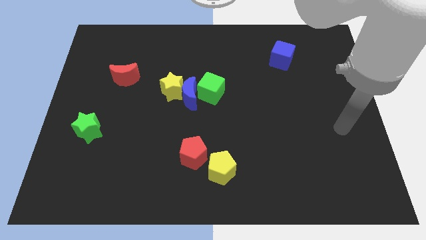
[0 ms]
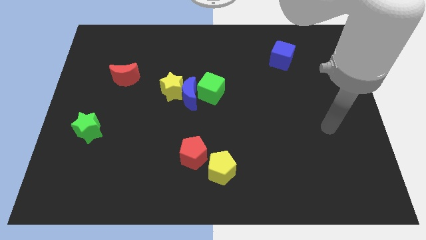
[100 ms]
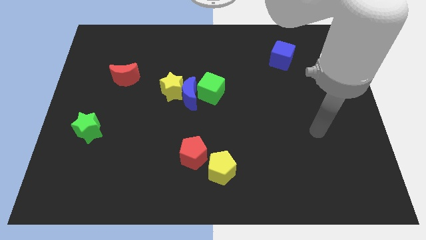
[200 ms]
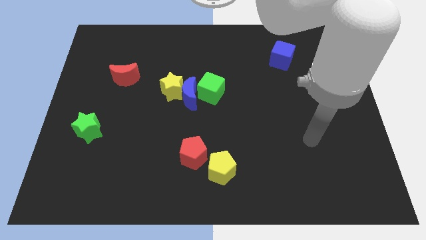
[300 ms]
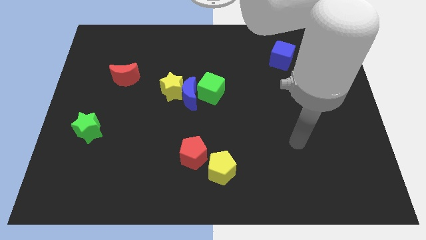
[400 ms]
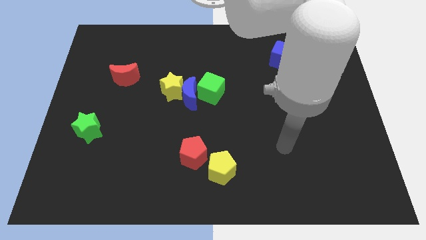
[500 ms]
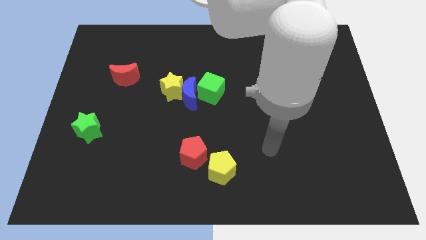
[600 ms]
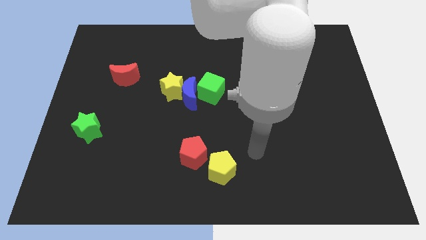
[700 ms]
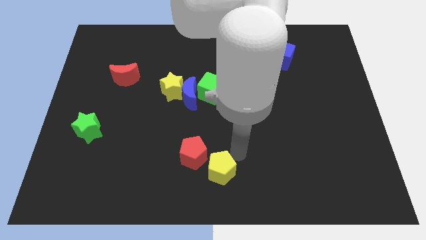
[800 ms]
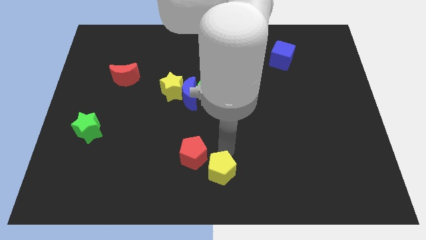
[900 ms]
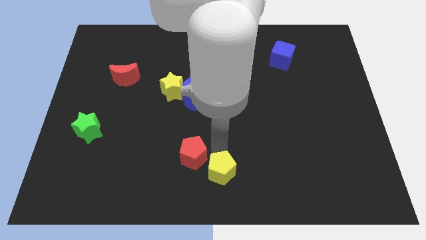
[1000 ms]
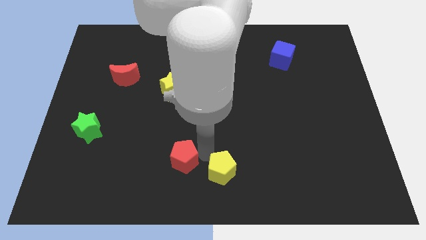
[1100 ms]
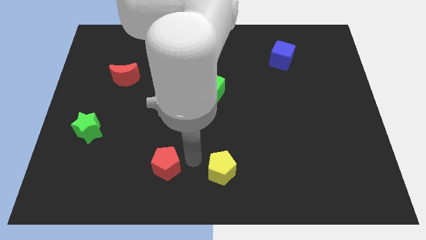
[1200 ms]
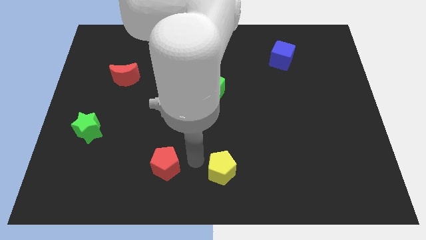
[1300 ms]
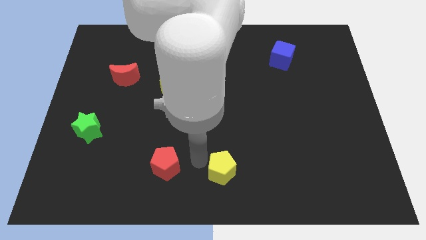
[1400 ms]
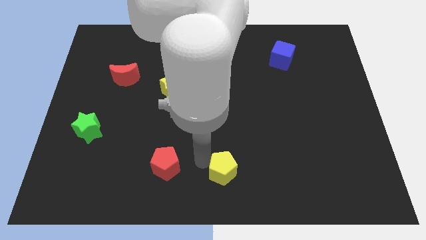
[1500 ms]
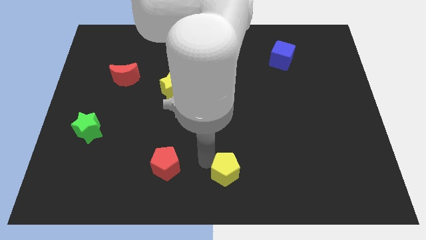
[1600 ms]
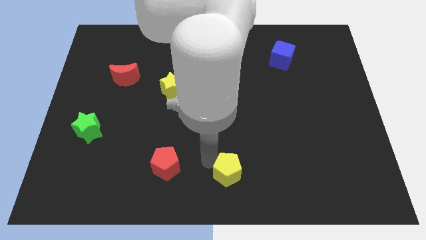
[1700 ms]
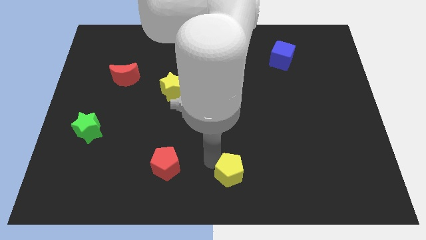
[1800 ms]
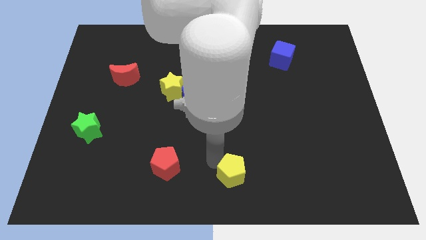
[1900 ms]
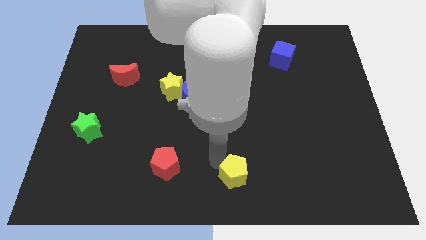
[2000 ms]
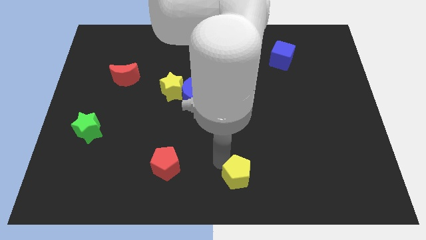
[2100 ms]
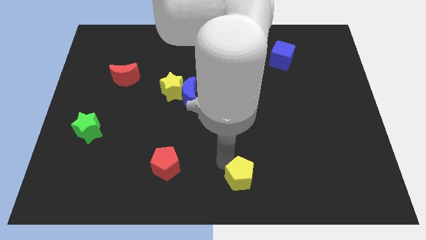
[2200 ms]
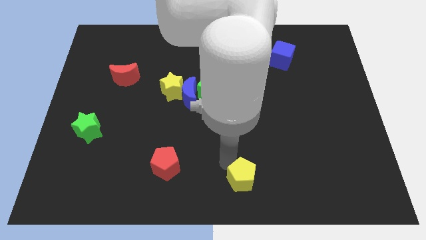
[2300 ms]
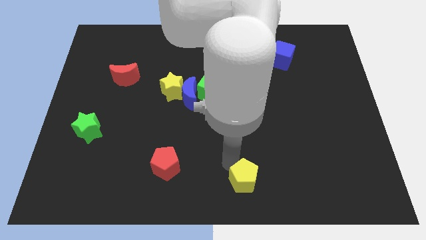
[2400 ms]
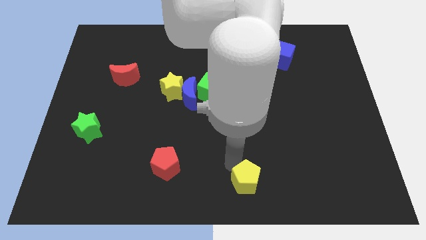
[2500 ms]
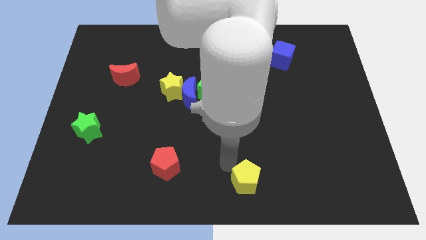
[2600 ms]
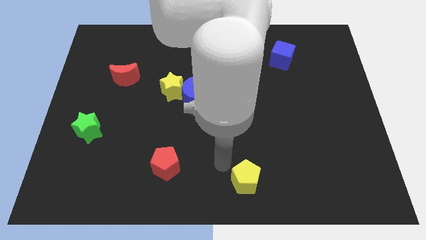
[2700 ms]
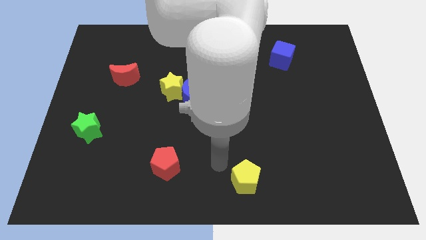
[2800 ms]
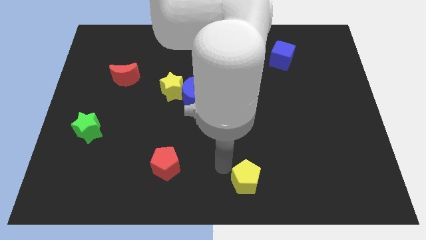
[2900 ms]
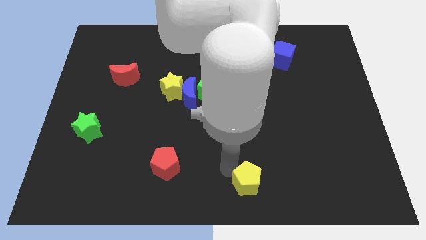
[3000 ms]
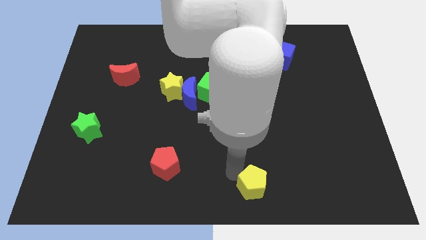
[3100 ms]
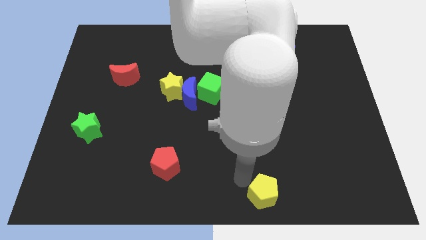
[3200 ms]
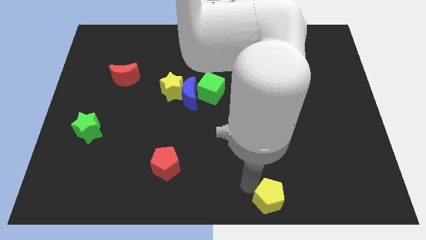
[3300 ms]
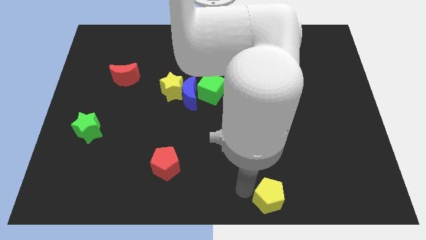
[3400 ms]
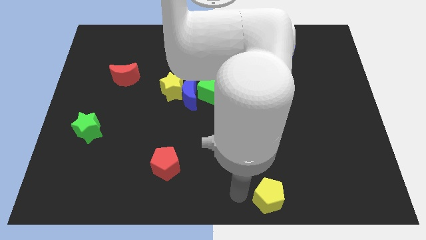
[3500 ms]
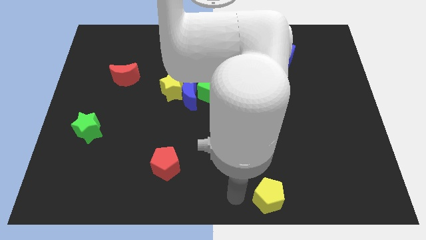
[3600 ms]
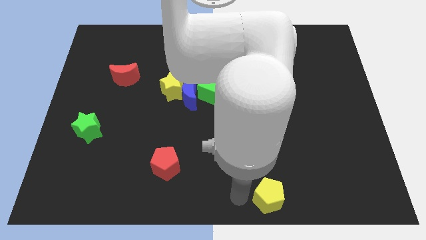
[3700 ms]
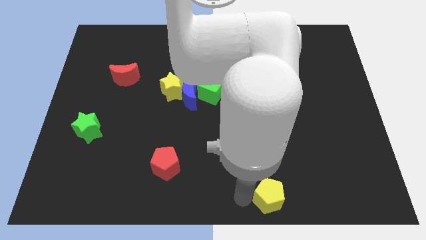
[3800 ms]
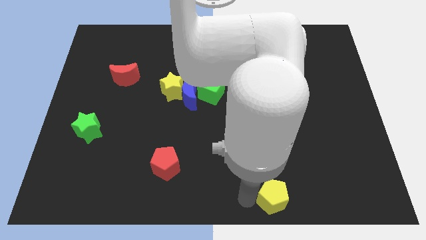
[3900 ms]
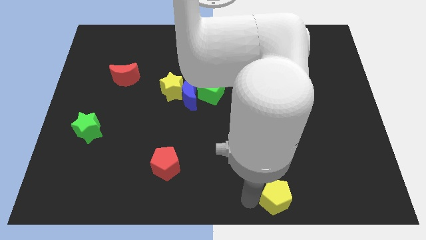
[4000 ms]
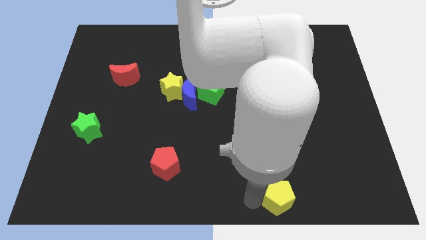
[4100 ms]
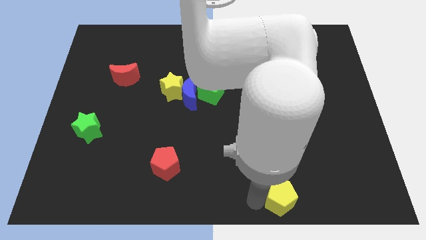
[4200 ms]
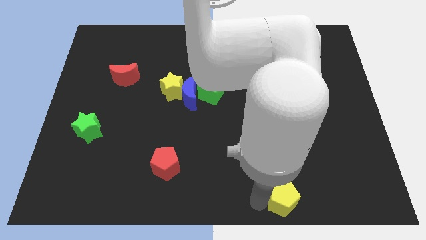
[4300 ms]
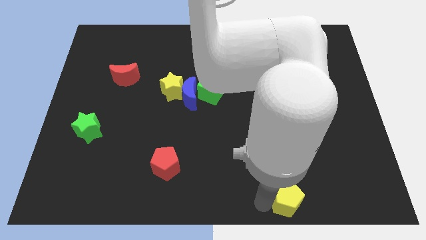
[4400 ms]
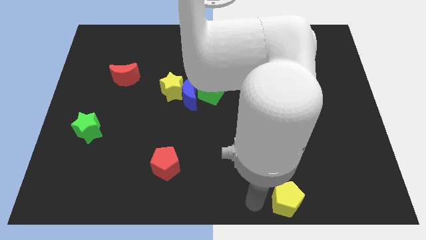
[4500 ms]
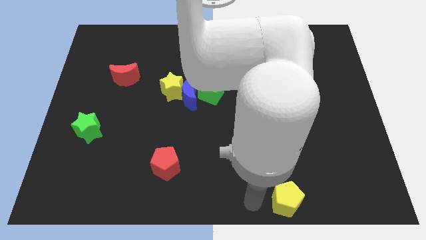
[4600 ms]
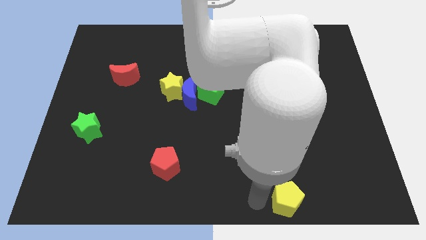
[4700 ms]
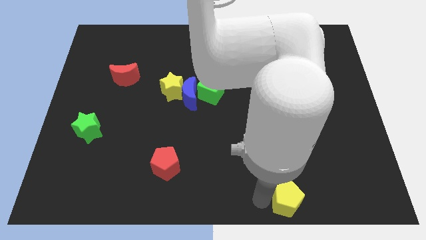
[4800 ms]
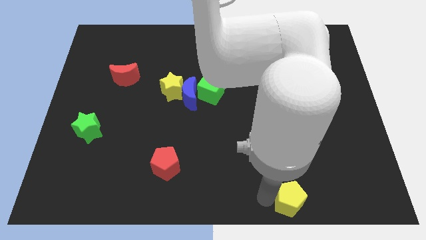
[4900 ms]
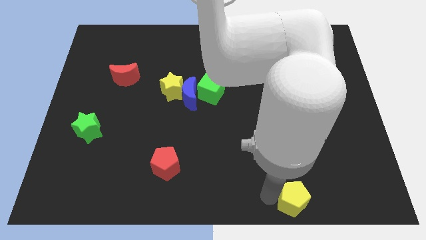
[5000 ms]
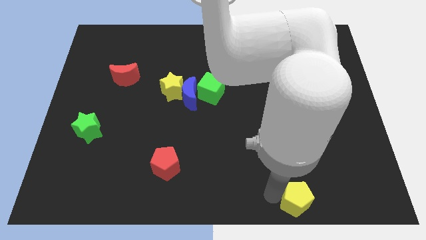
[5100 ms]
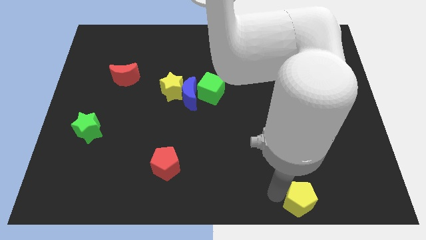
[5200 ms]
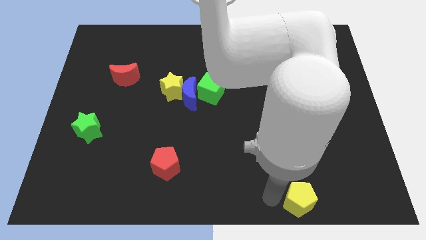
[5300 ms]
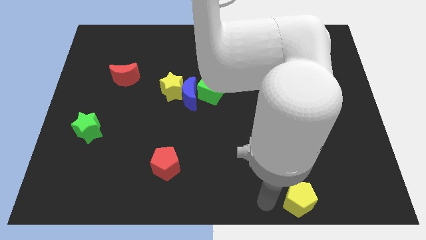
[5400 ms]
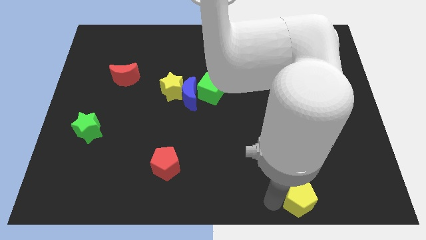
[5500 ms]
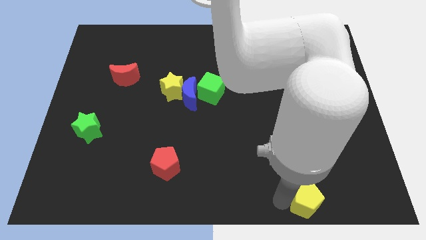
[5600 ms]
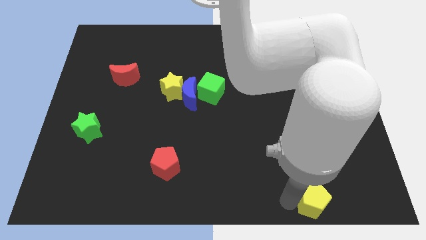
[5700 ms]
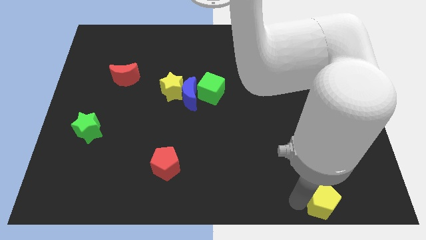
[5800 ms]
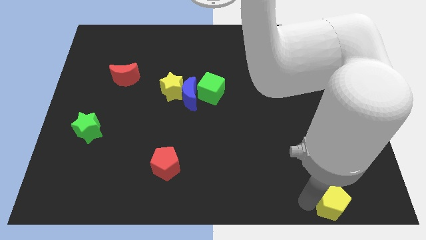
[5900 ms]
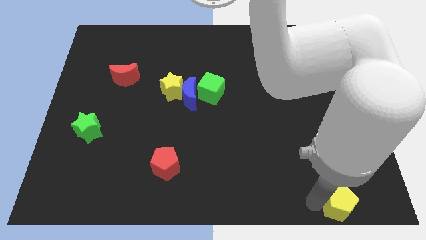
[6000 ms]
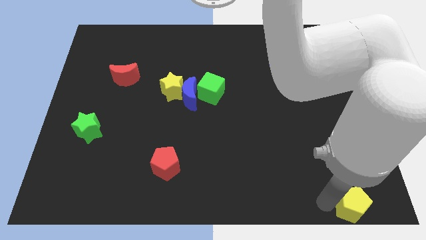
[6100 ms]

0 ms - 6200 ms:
slide the yellow pentagon to the lower right corner
